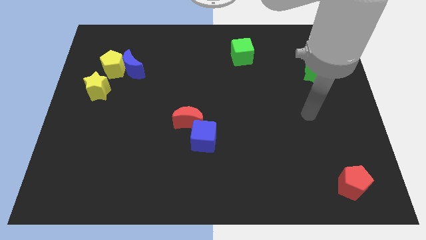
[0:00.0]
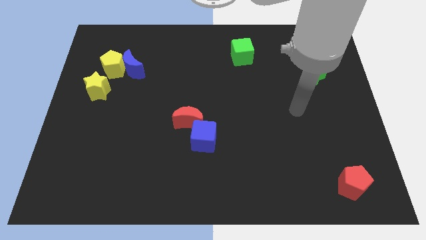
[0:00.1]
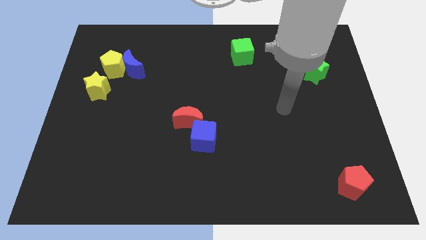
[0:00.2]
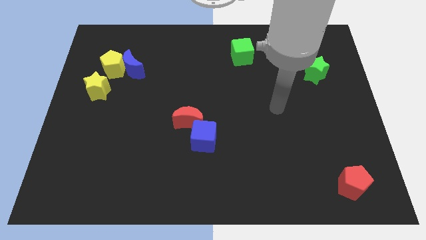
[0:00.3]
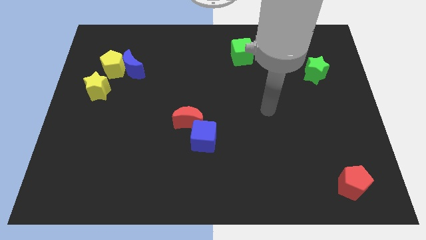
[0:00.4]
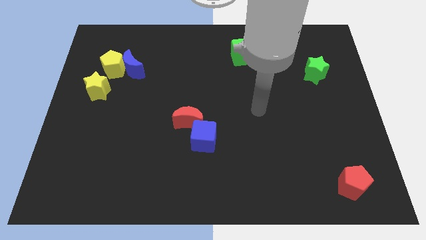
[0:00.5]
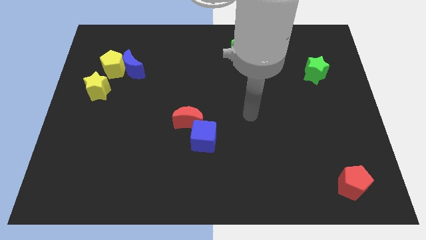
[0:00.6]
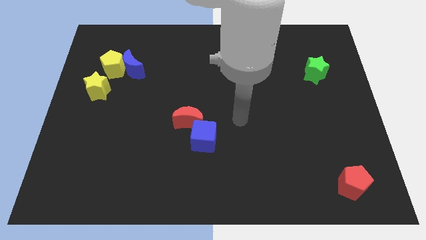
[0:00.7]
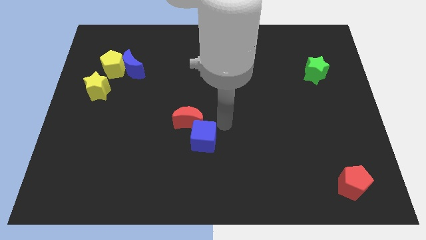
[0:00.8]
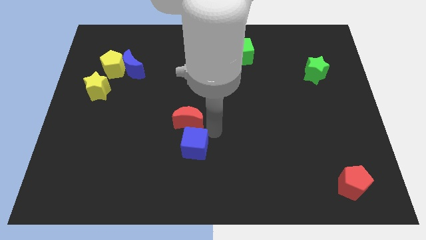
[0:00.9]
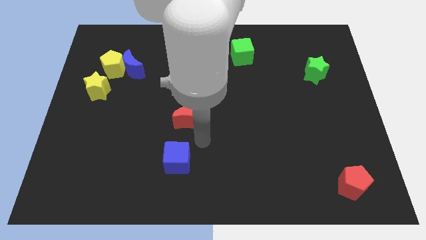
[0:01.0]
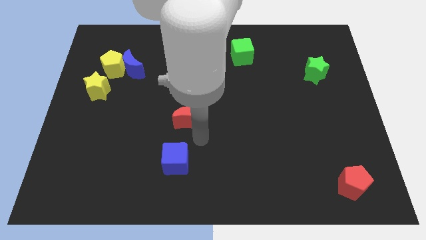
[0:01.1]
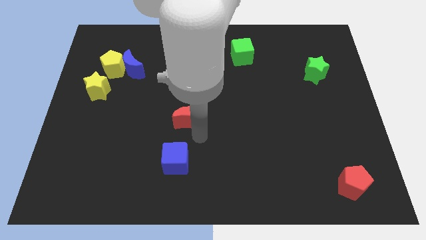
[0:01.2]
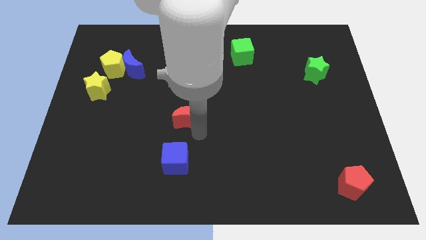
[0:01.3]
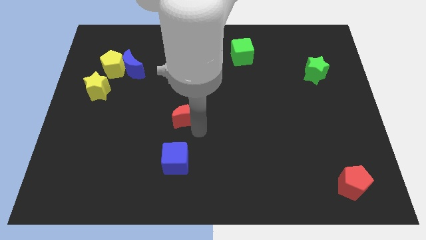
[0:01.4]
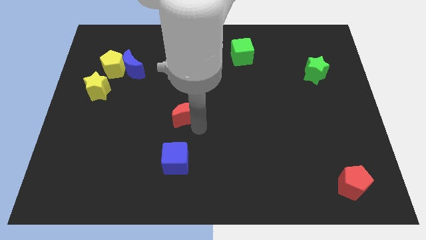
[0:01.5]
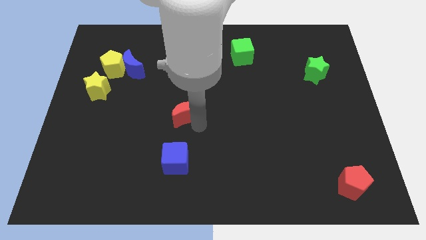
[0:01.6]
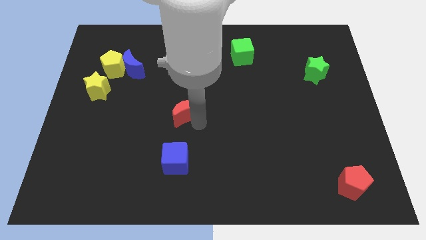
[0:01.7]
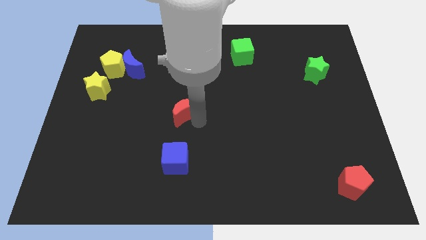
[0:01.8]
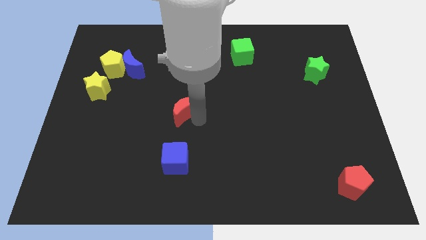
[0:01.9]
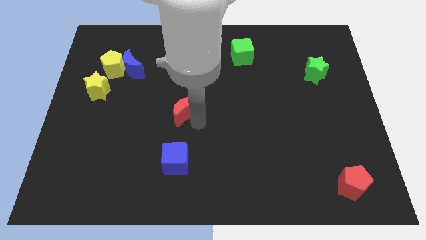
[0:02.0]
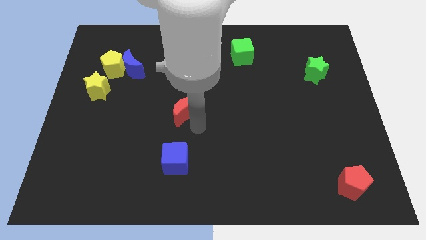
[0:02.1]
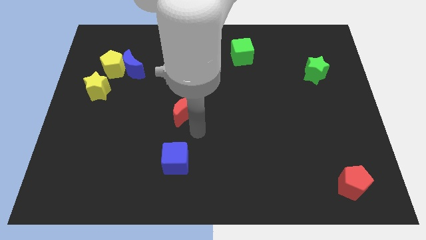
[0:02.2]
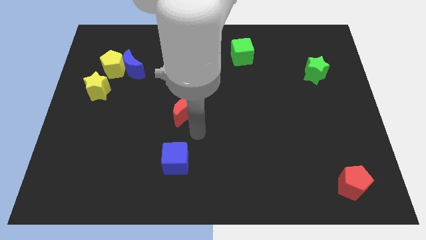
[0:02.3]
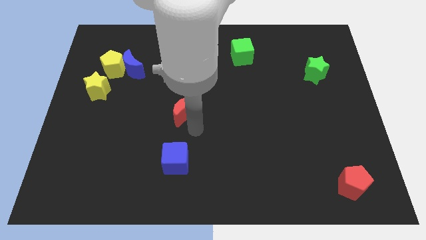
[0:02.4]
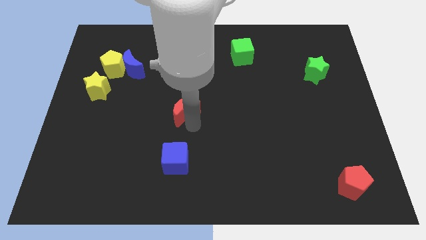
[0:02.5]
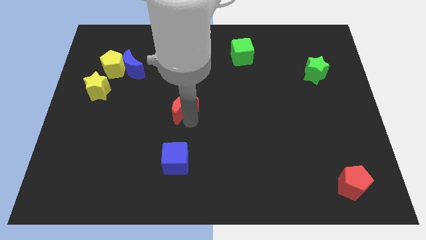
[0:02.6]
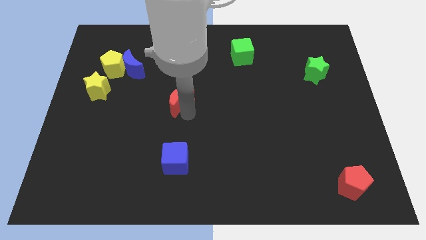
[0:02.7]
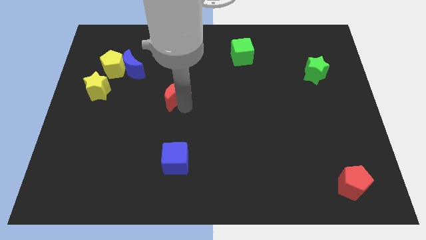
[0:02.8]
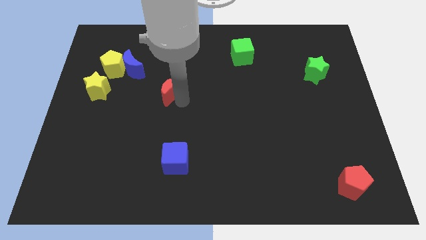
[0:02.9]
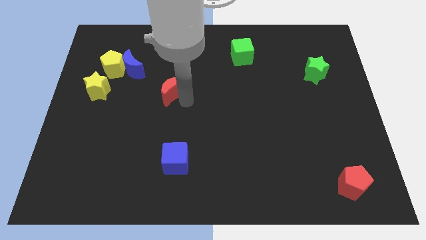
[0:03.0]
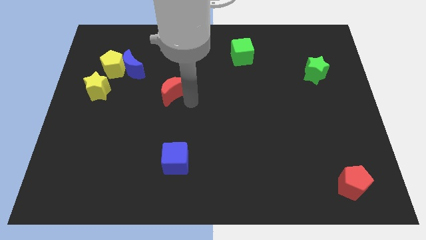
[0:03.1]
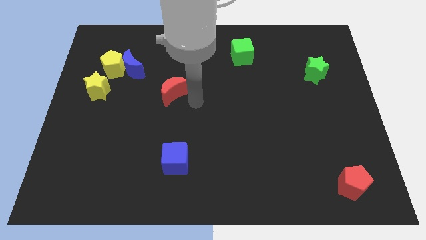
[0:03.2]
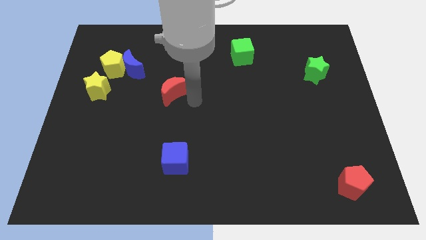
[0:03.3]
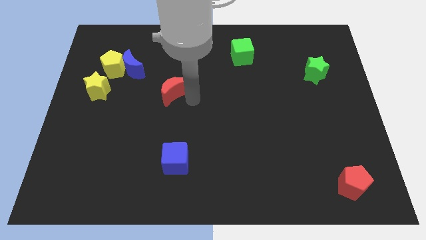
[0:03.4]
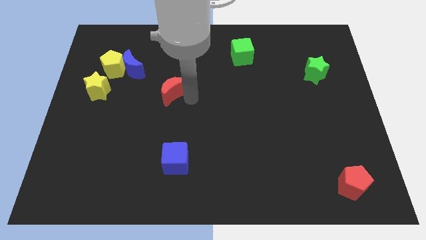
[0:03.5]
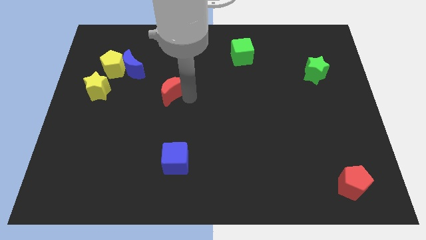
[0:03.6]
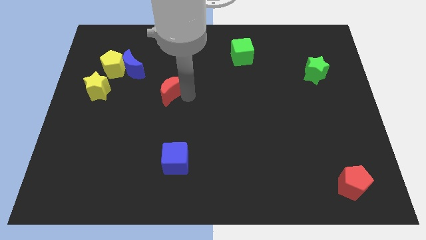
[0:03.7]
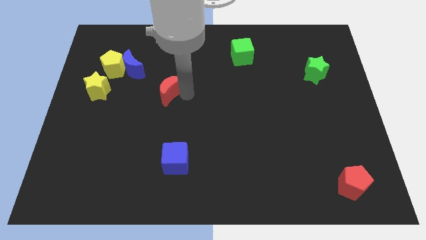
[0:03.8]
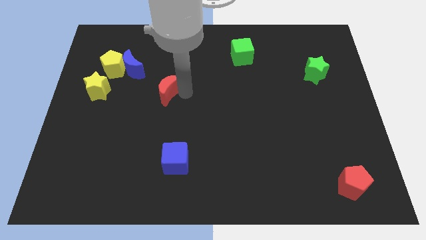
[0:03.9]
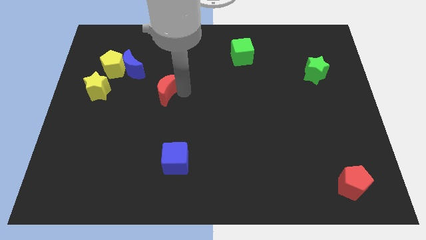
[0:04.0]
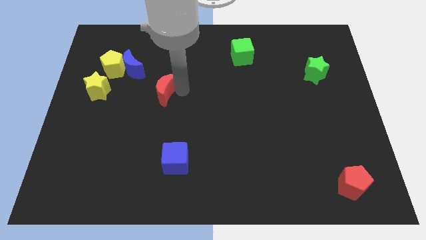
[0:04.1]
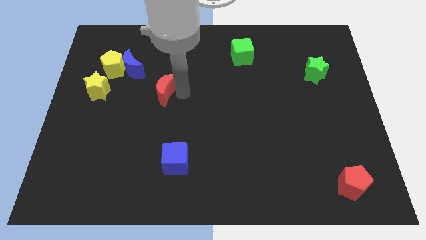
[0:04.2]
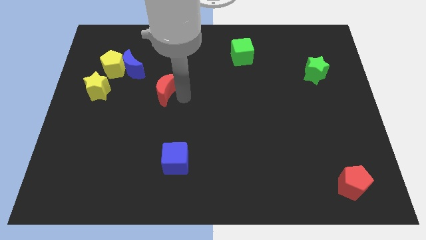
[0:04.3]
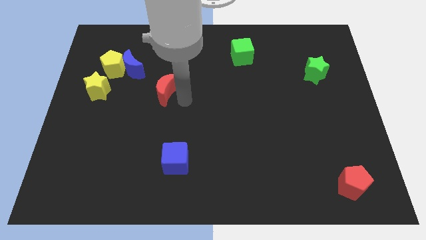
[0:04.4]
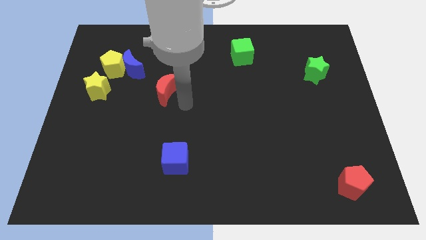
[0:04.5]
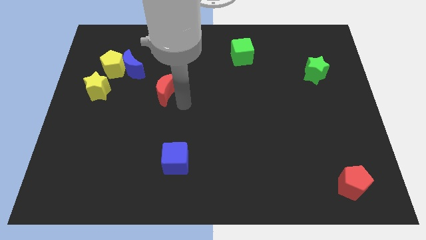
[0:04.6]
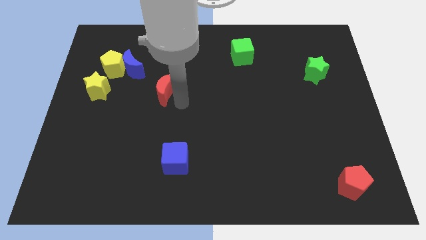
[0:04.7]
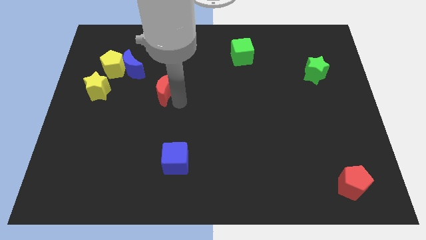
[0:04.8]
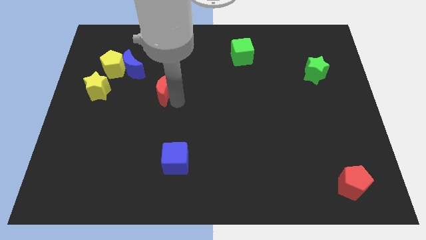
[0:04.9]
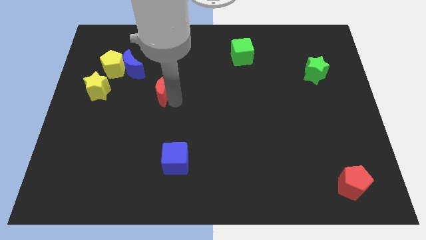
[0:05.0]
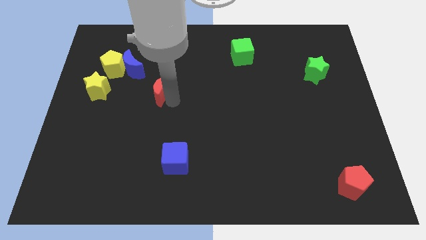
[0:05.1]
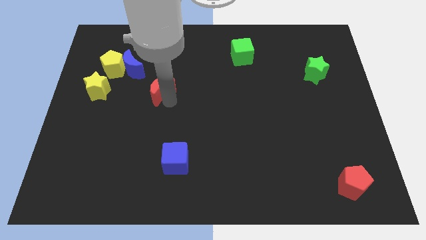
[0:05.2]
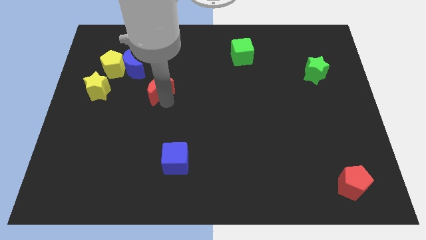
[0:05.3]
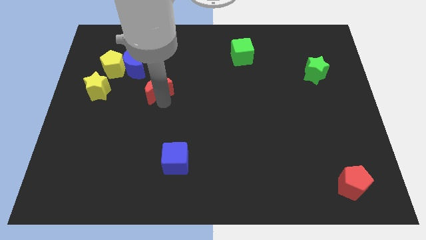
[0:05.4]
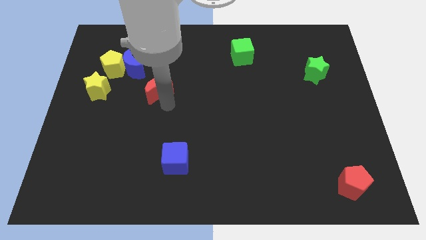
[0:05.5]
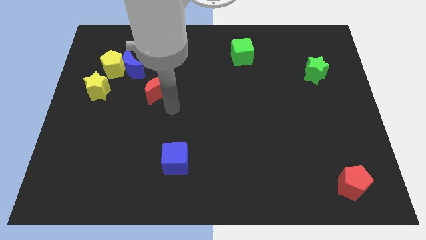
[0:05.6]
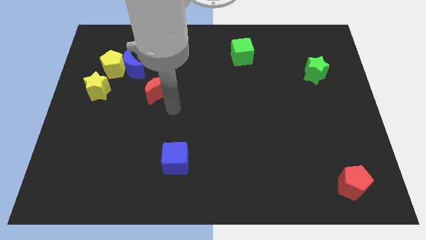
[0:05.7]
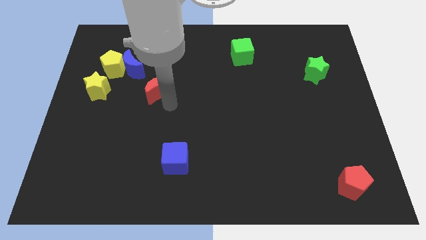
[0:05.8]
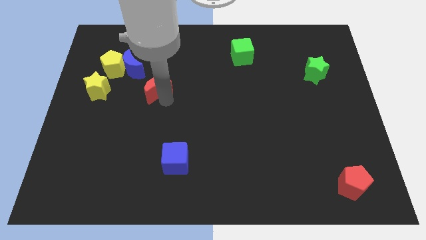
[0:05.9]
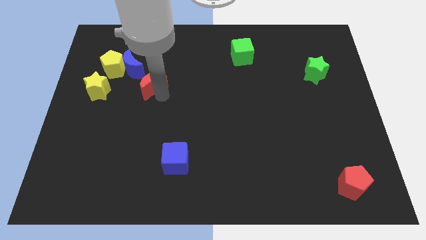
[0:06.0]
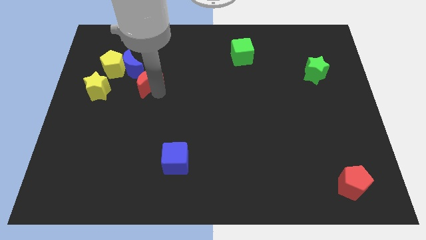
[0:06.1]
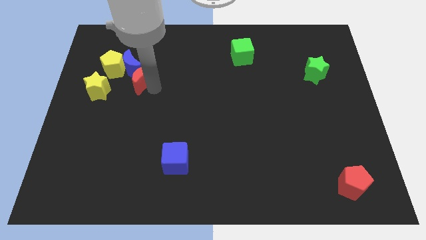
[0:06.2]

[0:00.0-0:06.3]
move the red moon to the blue moon

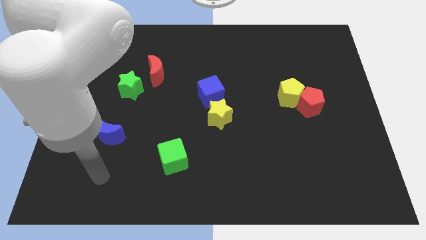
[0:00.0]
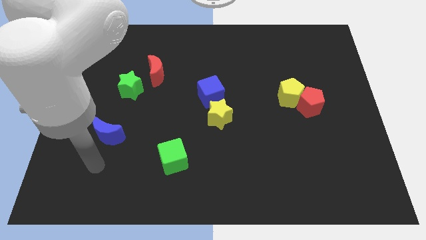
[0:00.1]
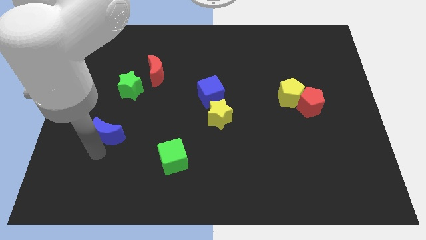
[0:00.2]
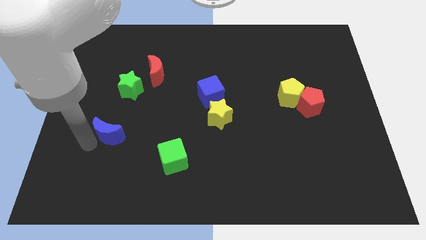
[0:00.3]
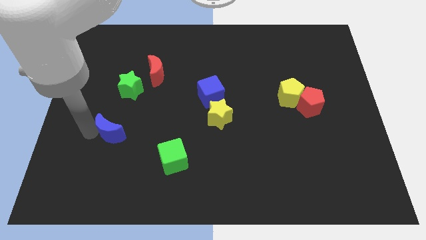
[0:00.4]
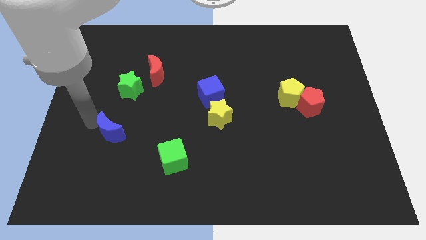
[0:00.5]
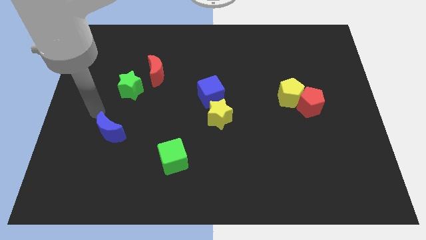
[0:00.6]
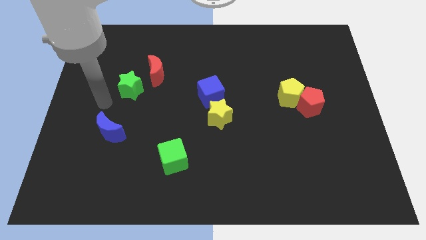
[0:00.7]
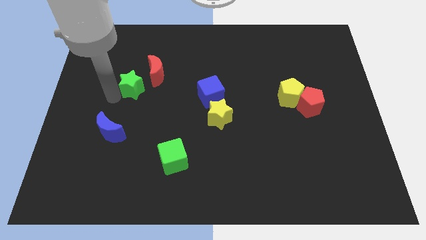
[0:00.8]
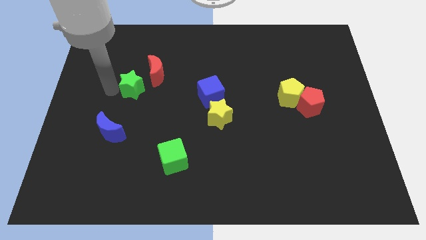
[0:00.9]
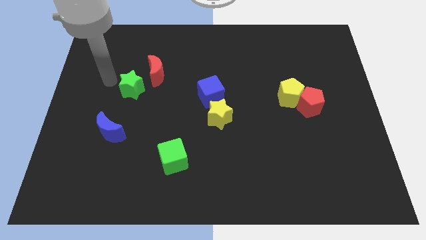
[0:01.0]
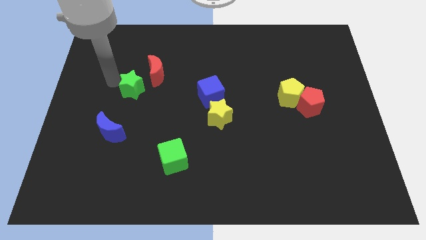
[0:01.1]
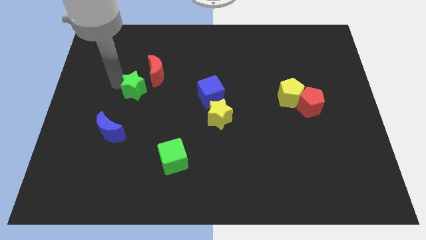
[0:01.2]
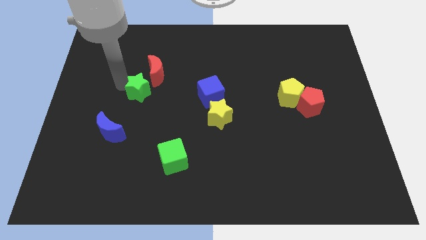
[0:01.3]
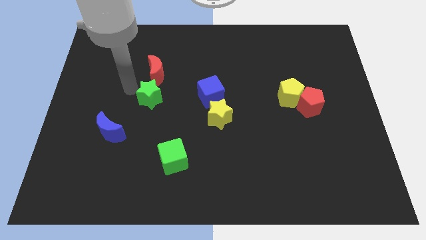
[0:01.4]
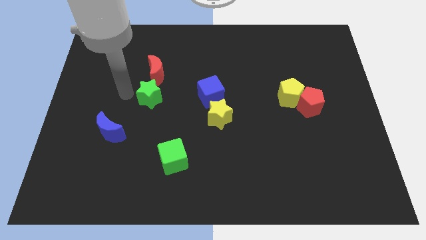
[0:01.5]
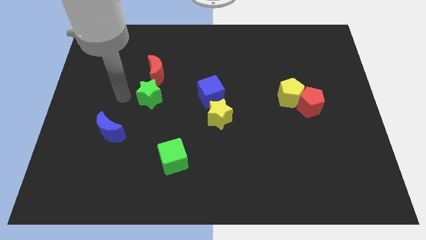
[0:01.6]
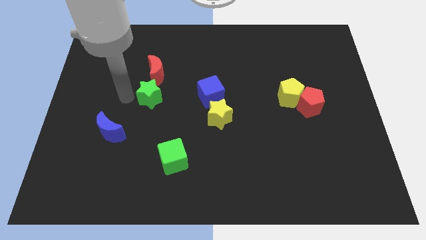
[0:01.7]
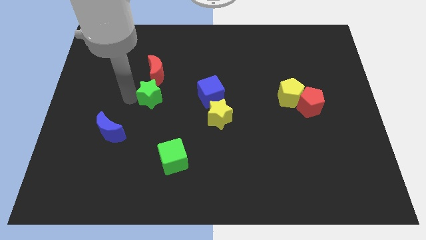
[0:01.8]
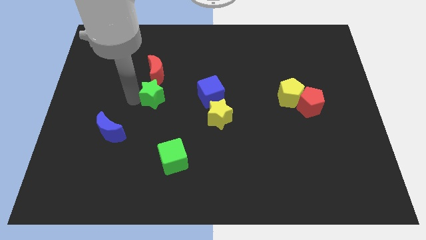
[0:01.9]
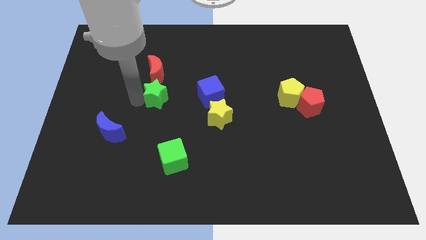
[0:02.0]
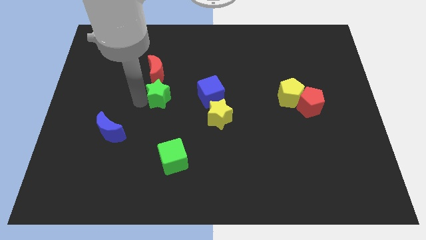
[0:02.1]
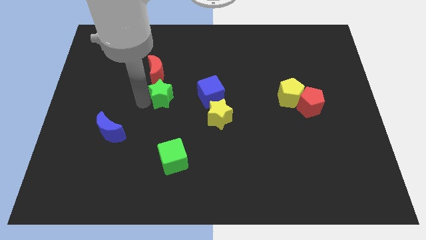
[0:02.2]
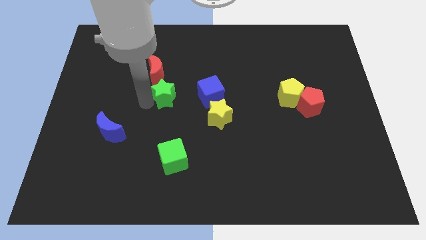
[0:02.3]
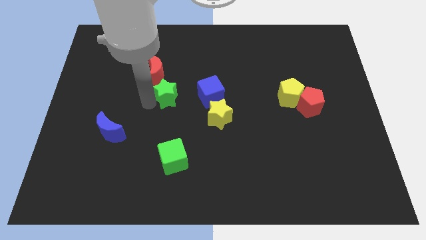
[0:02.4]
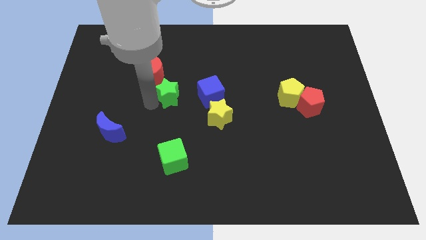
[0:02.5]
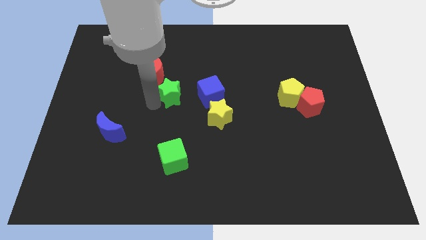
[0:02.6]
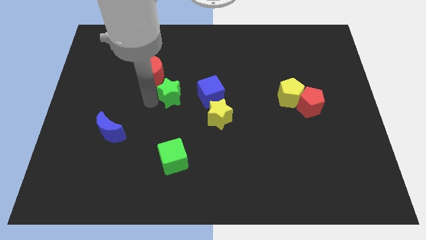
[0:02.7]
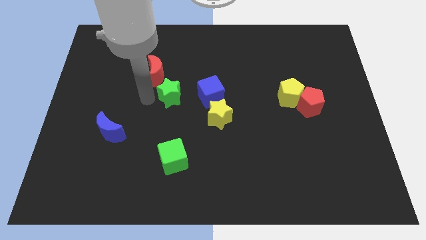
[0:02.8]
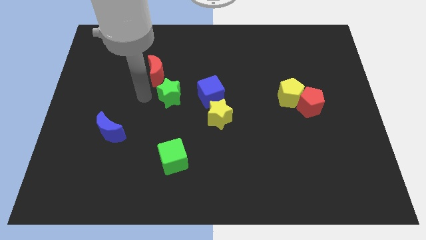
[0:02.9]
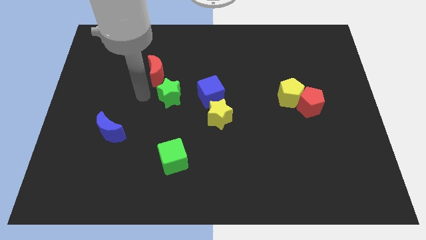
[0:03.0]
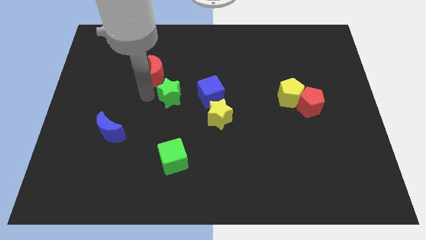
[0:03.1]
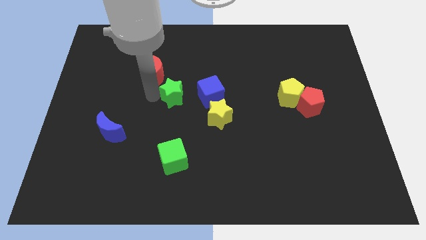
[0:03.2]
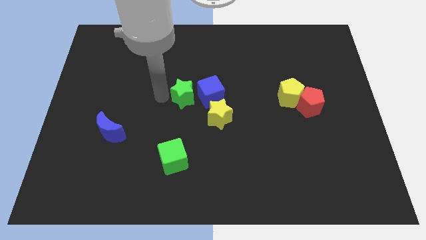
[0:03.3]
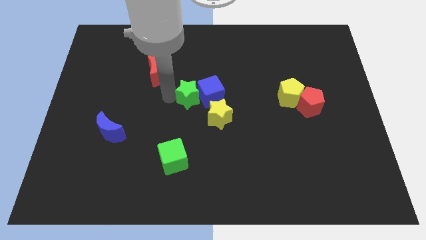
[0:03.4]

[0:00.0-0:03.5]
move the green star to the blue cube
